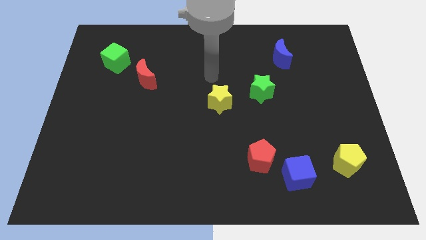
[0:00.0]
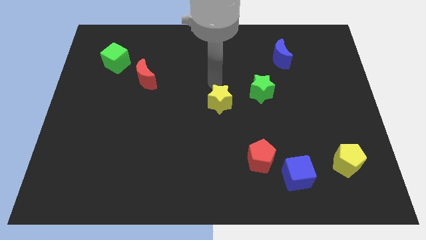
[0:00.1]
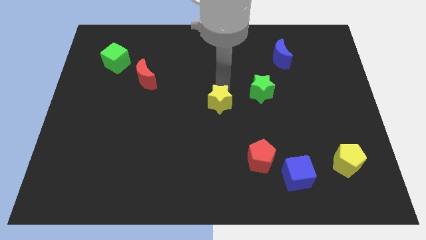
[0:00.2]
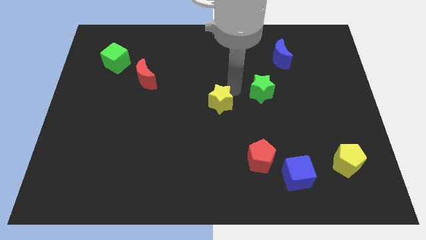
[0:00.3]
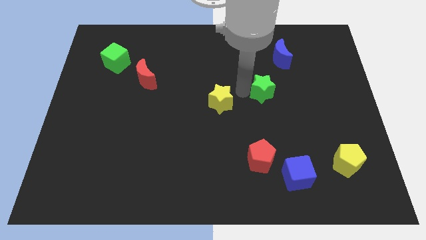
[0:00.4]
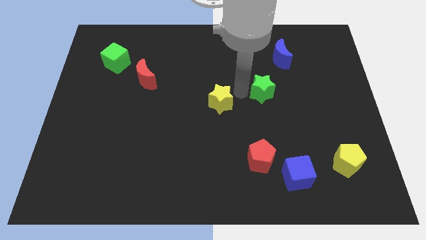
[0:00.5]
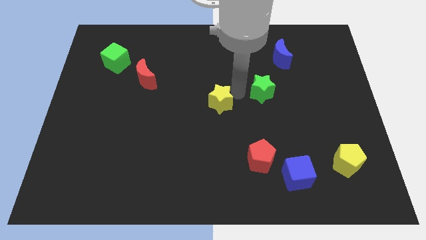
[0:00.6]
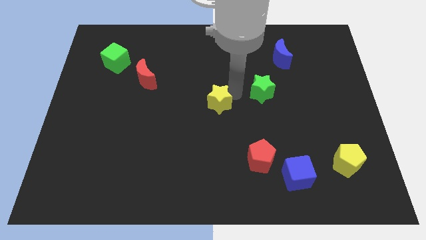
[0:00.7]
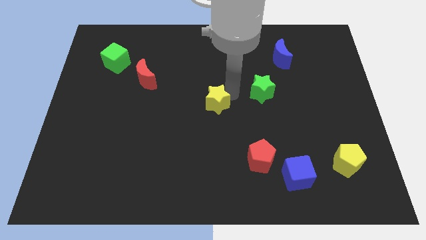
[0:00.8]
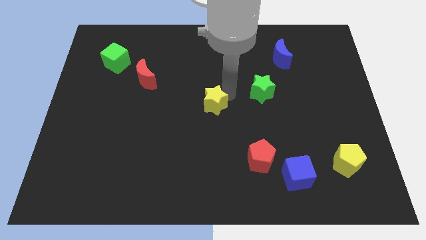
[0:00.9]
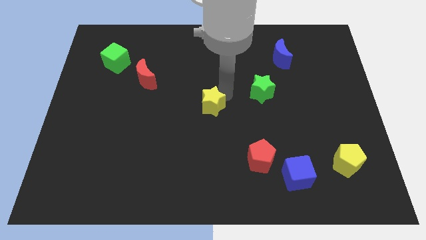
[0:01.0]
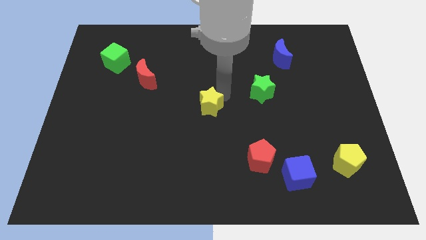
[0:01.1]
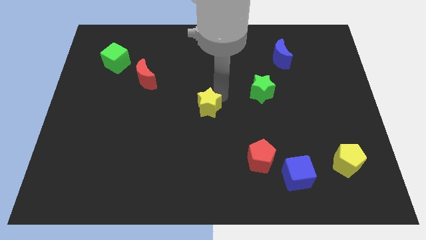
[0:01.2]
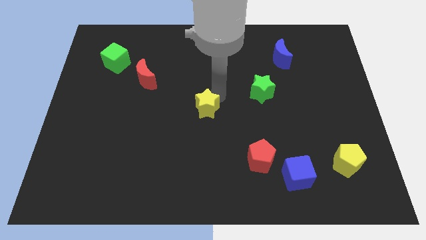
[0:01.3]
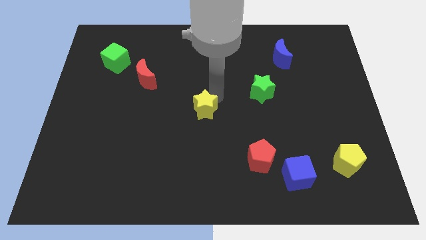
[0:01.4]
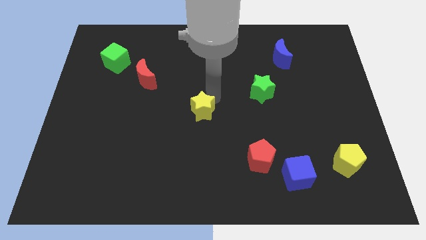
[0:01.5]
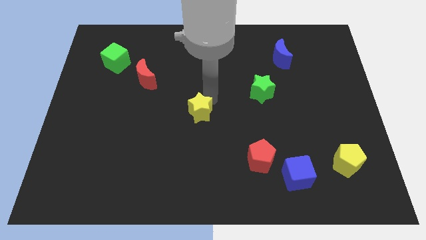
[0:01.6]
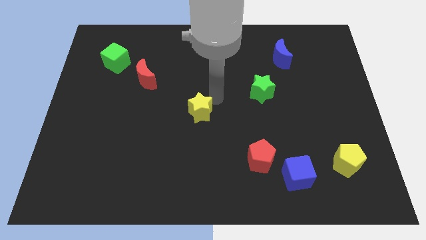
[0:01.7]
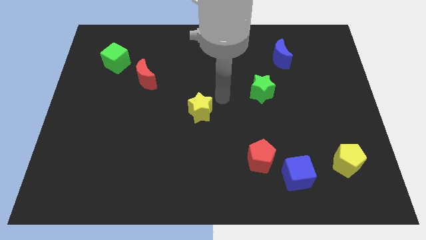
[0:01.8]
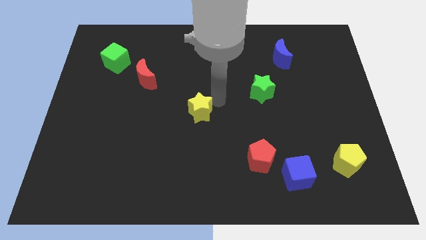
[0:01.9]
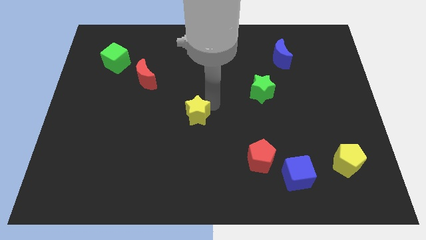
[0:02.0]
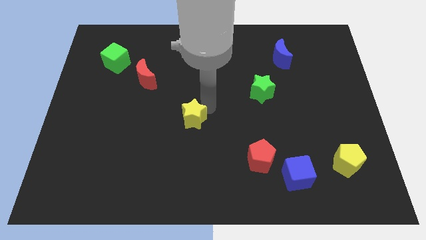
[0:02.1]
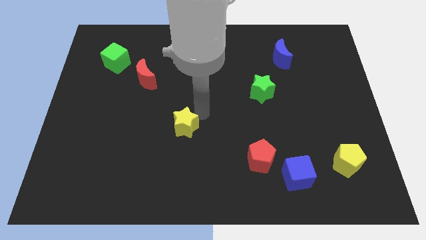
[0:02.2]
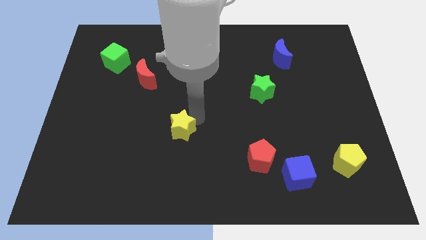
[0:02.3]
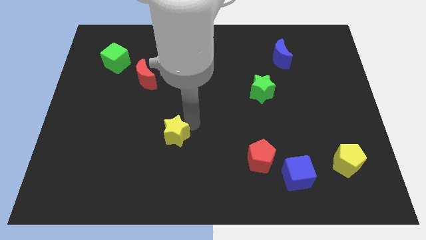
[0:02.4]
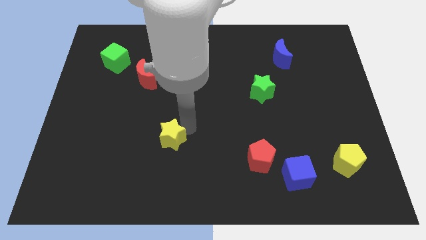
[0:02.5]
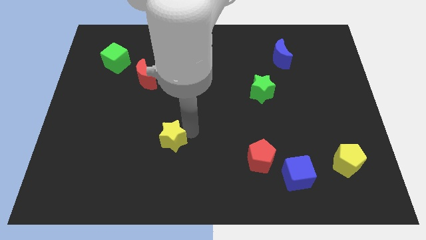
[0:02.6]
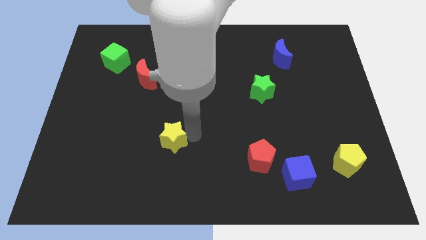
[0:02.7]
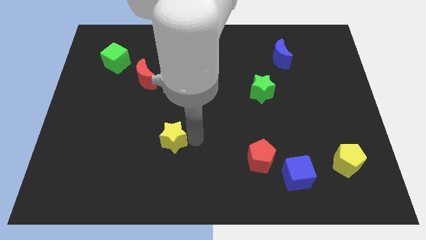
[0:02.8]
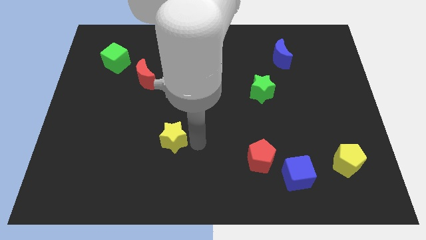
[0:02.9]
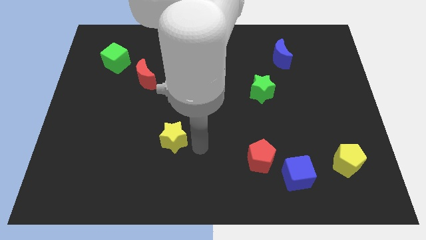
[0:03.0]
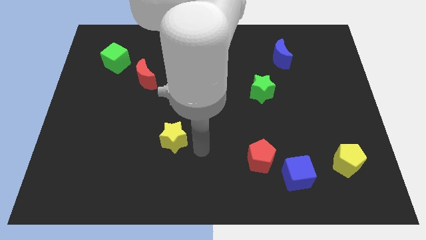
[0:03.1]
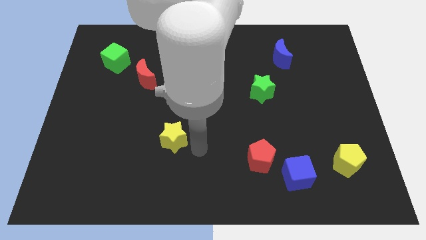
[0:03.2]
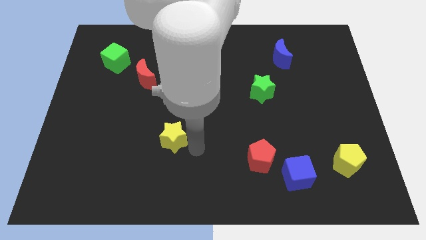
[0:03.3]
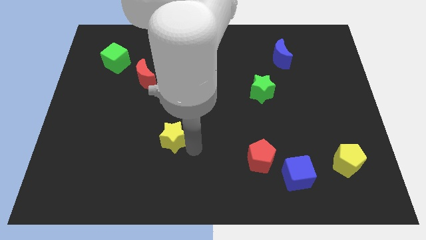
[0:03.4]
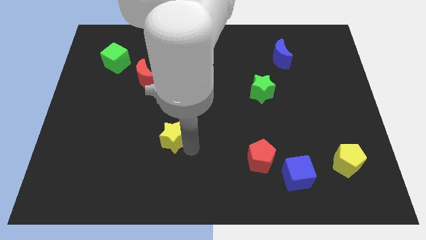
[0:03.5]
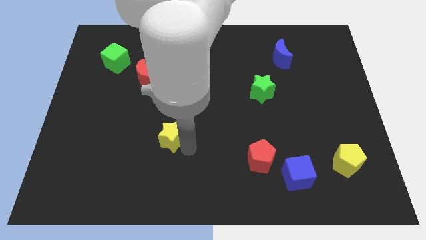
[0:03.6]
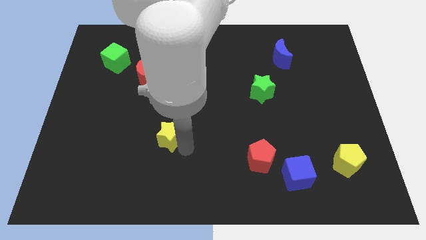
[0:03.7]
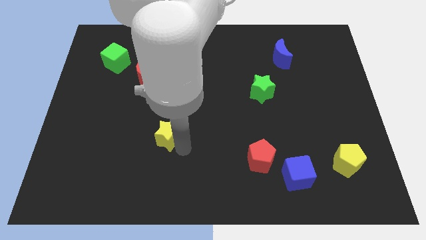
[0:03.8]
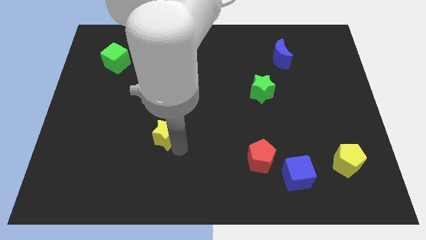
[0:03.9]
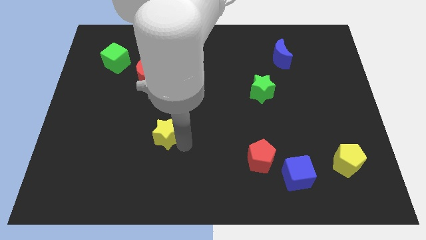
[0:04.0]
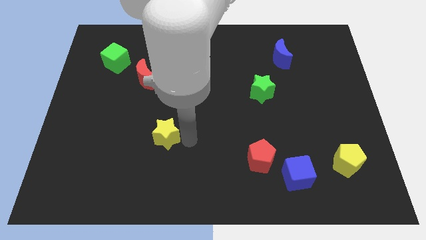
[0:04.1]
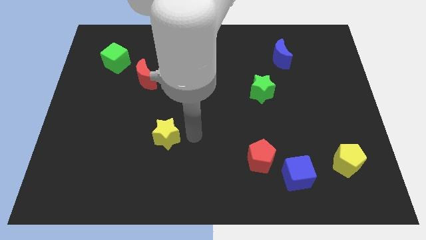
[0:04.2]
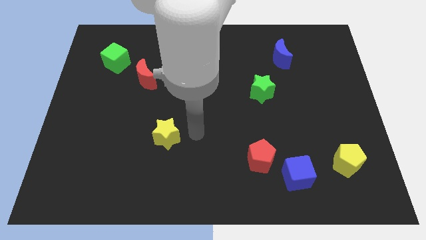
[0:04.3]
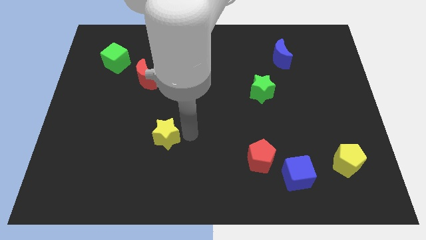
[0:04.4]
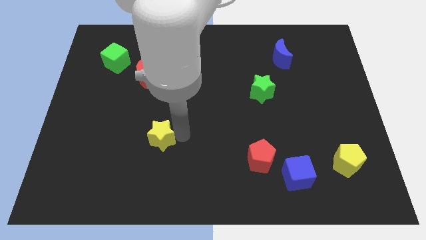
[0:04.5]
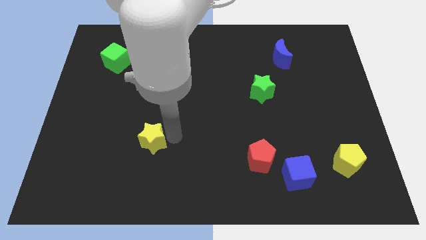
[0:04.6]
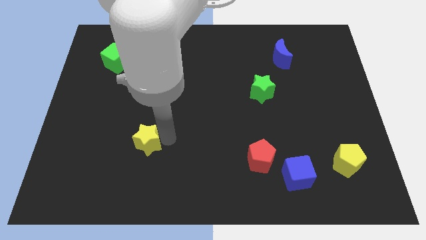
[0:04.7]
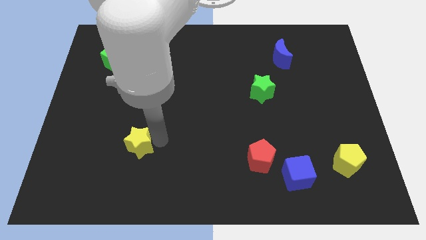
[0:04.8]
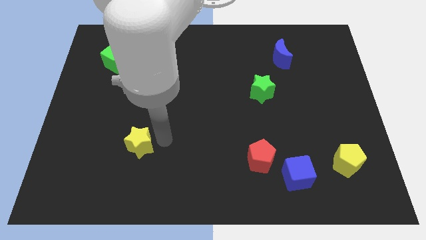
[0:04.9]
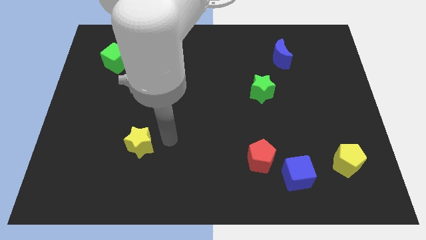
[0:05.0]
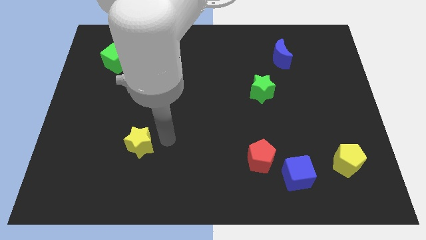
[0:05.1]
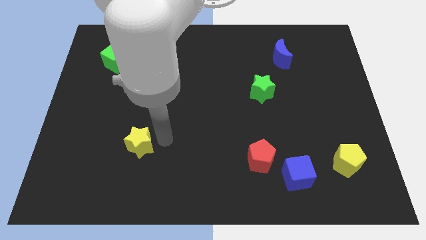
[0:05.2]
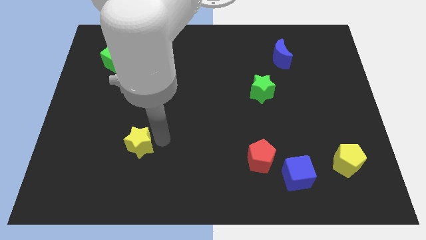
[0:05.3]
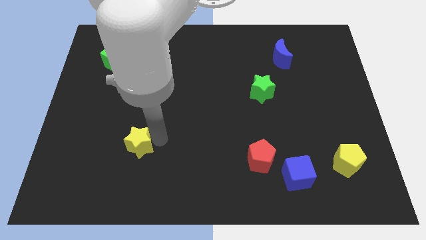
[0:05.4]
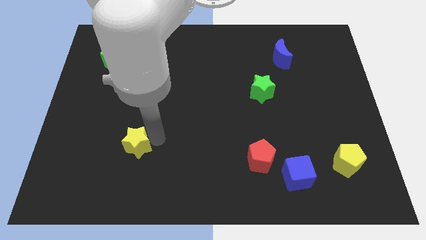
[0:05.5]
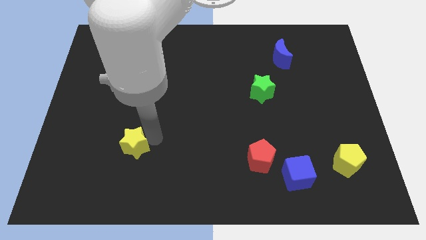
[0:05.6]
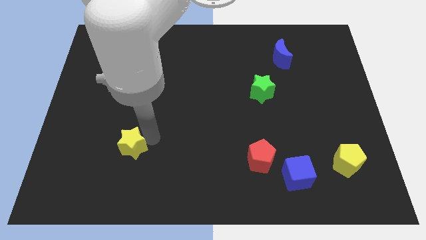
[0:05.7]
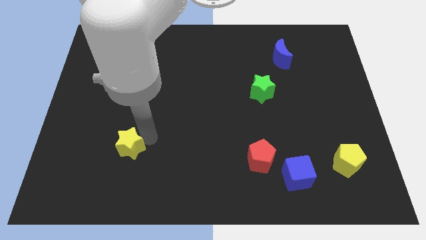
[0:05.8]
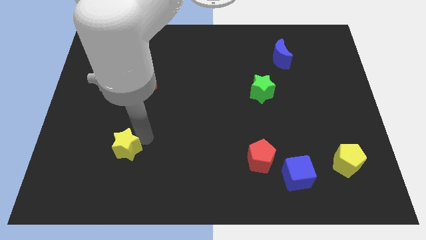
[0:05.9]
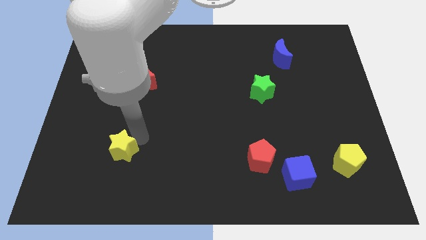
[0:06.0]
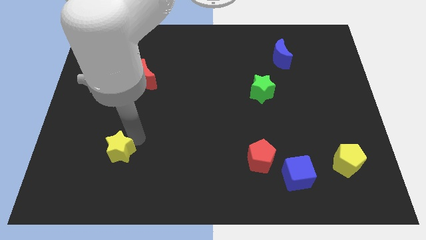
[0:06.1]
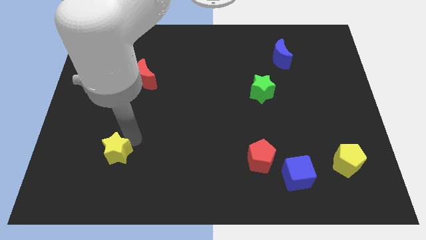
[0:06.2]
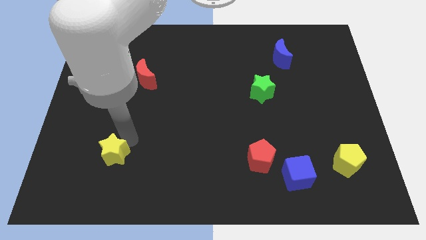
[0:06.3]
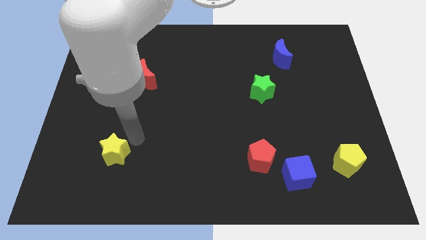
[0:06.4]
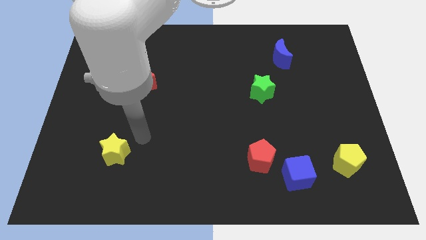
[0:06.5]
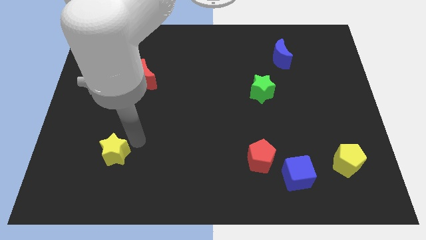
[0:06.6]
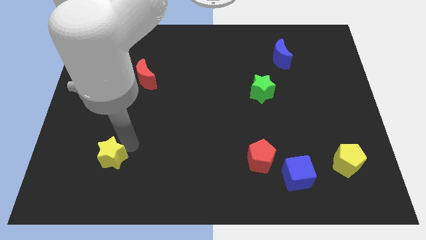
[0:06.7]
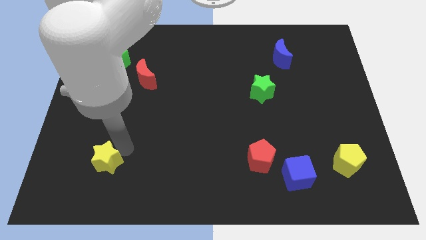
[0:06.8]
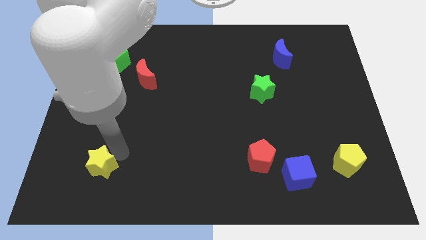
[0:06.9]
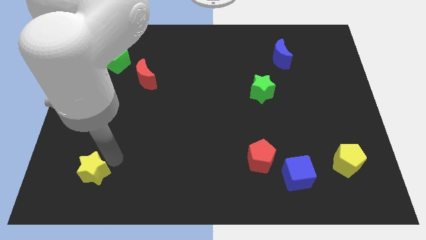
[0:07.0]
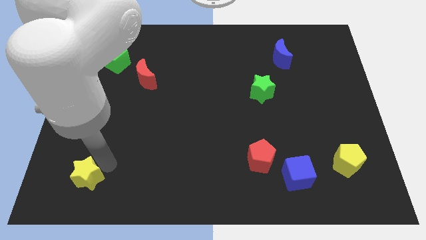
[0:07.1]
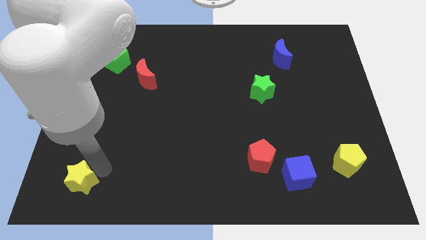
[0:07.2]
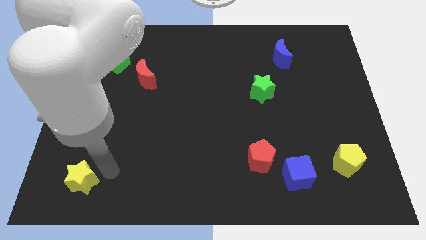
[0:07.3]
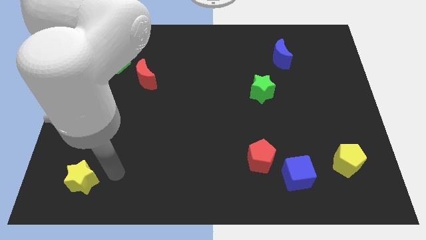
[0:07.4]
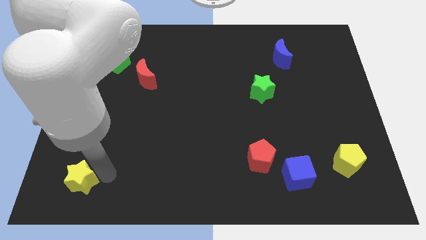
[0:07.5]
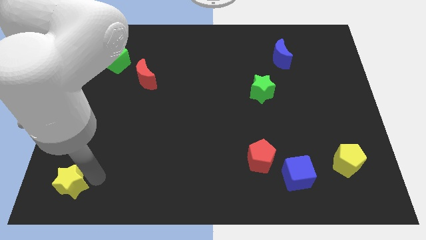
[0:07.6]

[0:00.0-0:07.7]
put the yellow star to the bottom left corner
